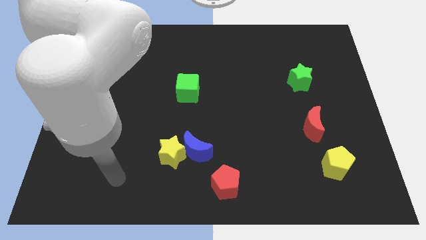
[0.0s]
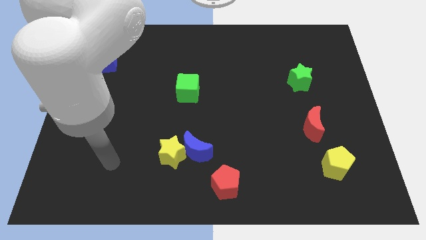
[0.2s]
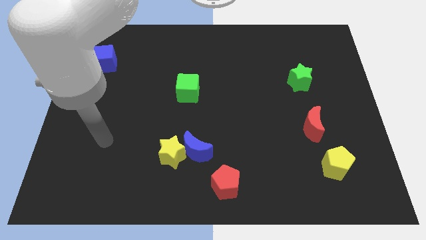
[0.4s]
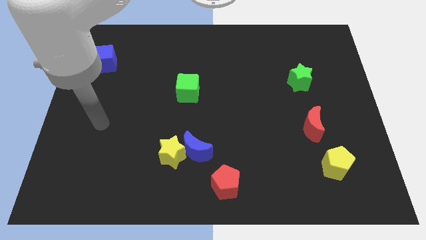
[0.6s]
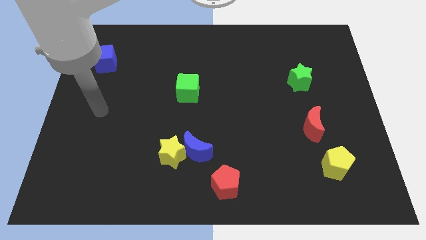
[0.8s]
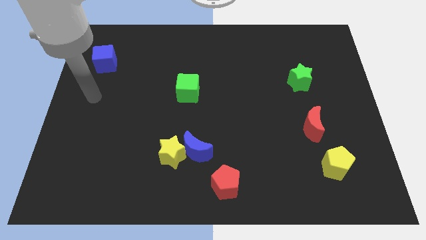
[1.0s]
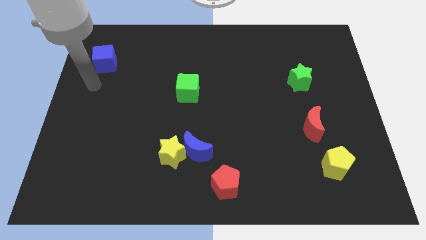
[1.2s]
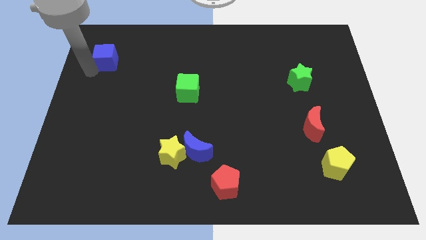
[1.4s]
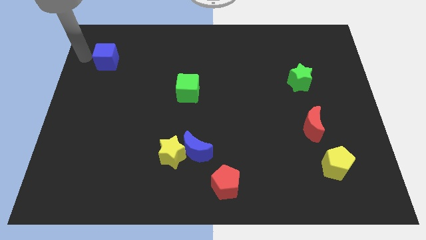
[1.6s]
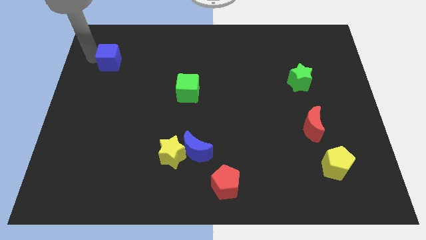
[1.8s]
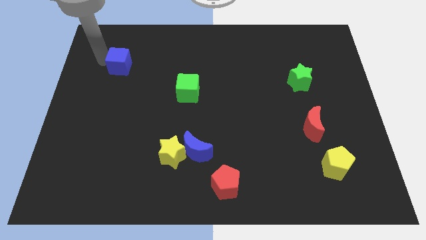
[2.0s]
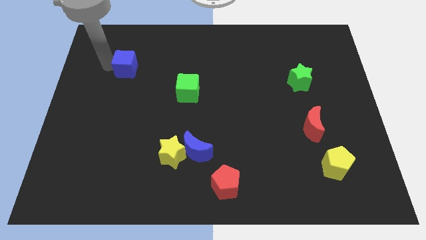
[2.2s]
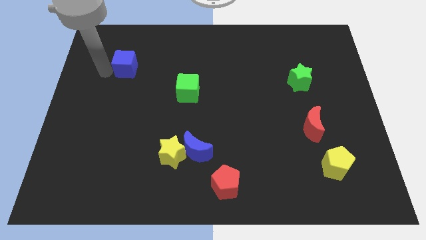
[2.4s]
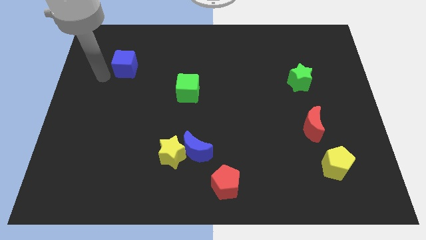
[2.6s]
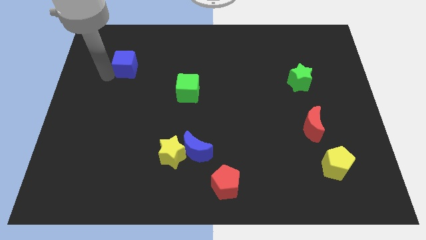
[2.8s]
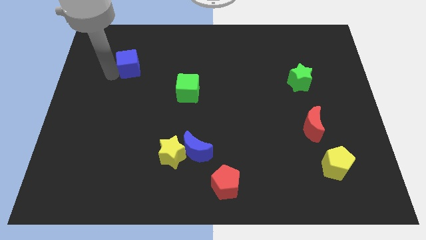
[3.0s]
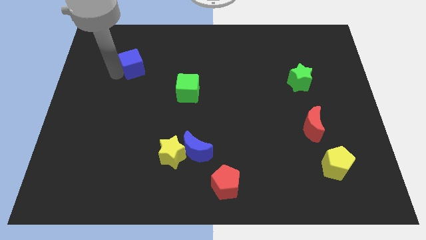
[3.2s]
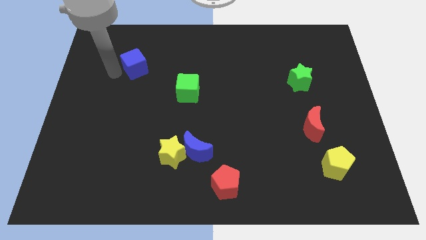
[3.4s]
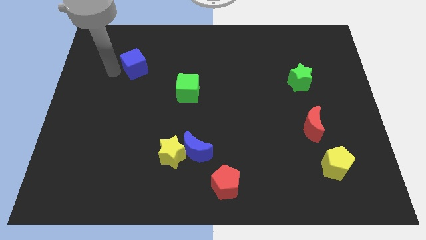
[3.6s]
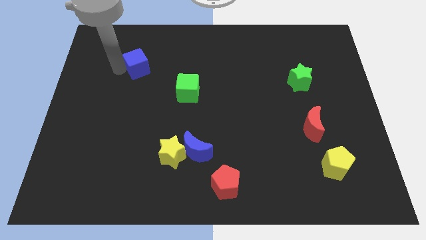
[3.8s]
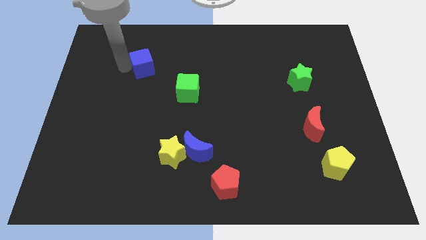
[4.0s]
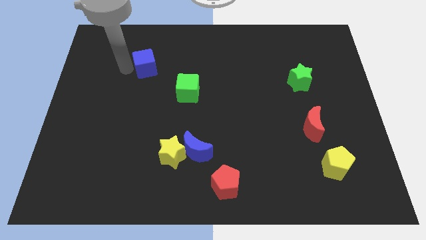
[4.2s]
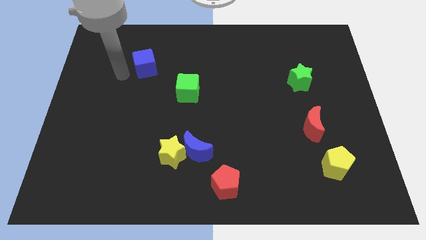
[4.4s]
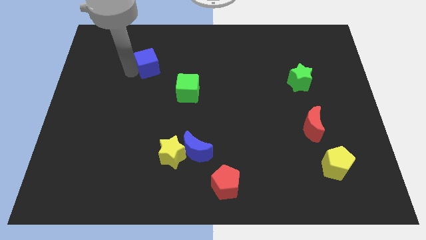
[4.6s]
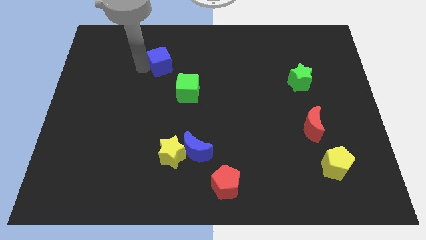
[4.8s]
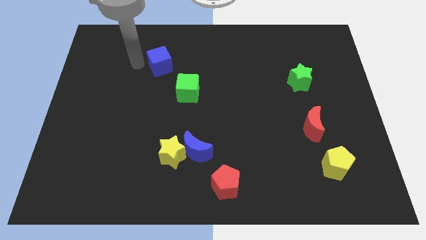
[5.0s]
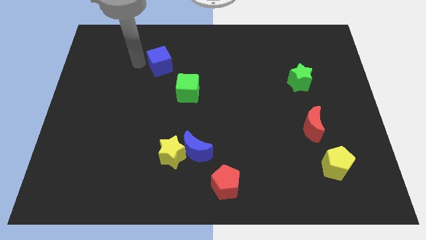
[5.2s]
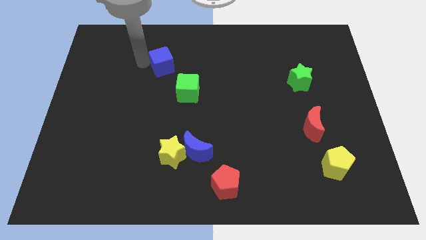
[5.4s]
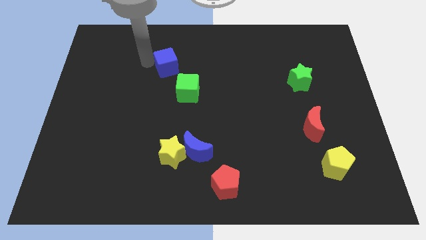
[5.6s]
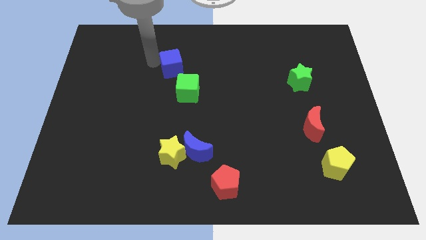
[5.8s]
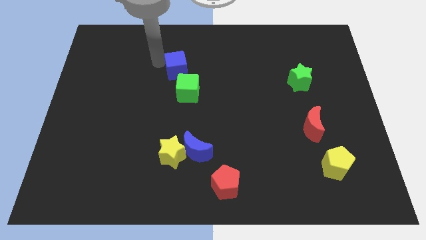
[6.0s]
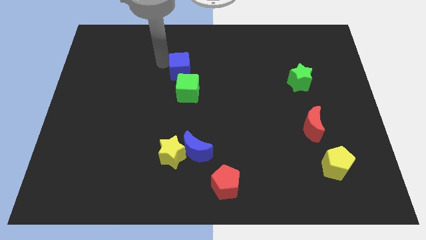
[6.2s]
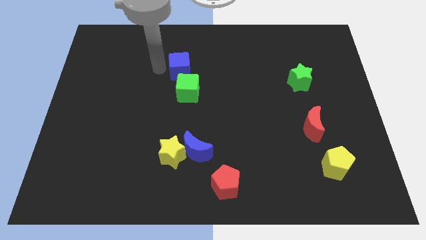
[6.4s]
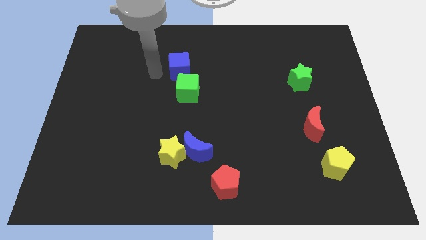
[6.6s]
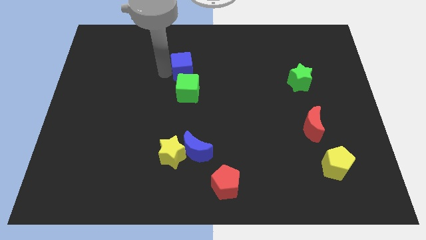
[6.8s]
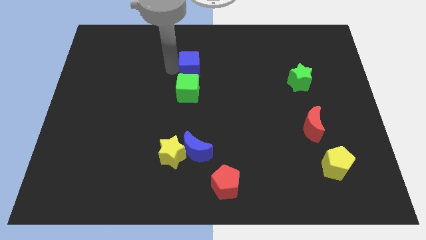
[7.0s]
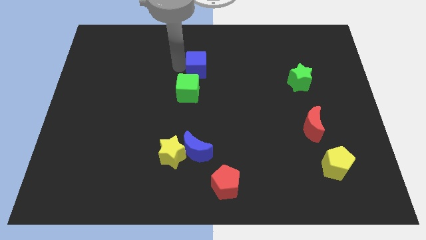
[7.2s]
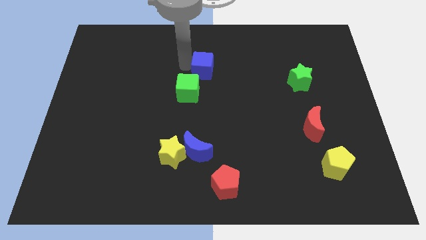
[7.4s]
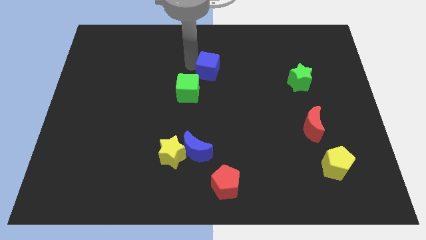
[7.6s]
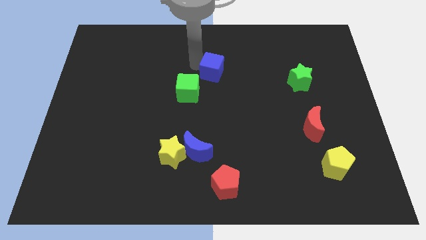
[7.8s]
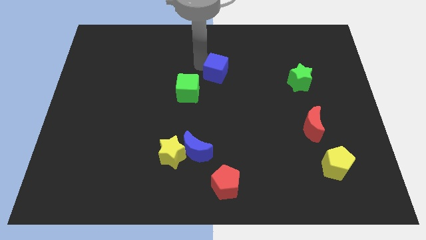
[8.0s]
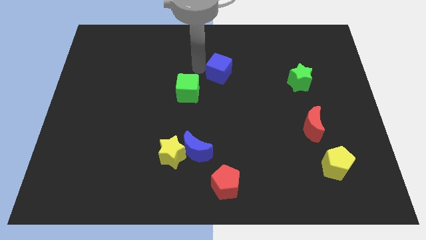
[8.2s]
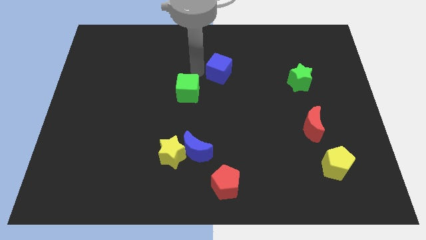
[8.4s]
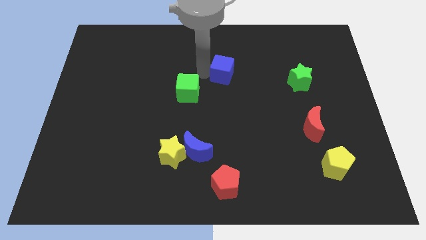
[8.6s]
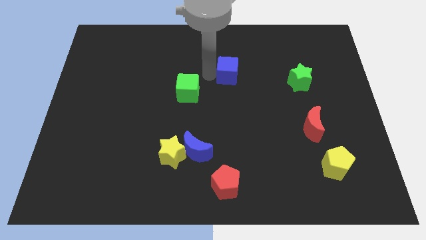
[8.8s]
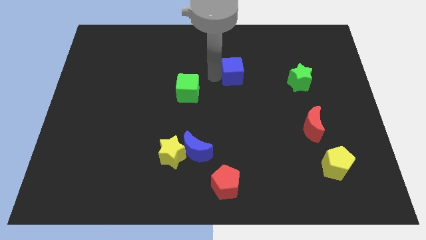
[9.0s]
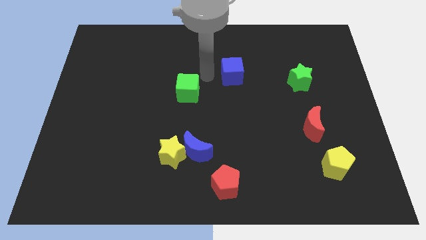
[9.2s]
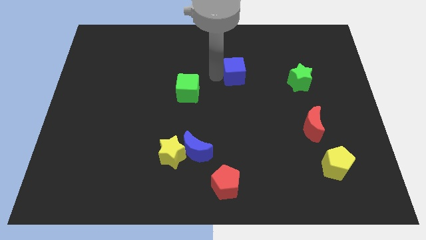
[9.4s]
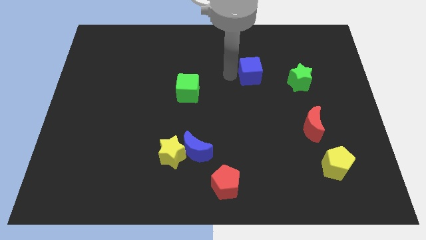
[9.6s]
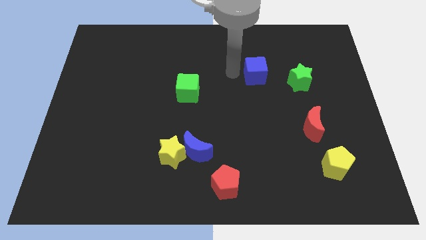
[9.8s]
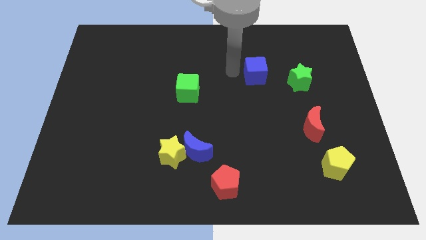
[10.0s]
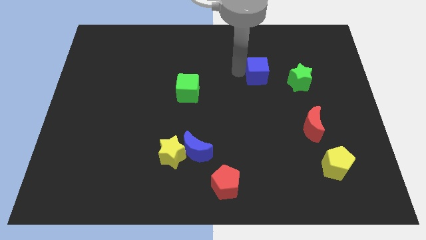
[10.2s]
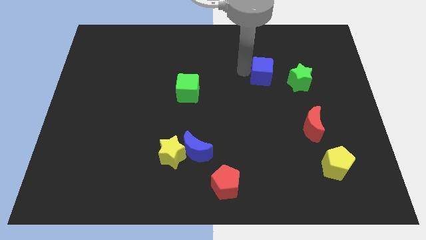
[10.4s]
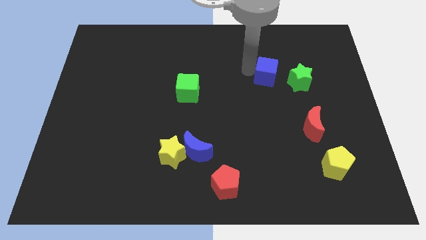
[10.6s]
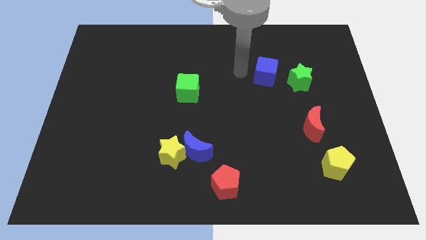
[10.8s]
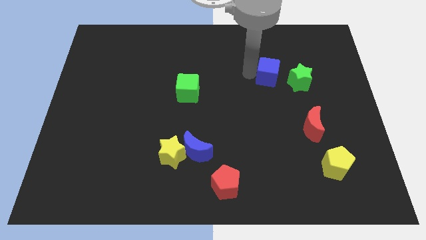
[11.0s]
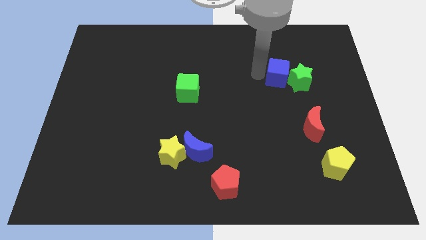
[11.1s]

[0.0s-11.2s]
put the blue cube towards the green star

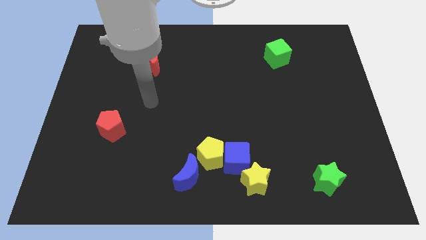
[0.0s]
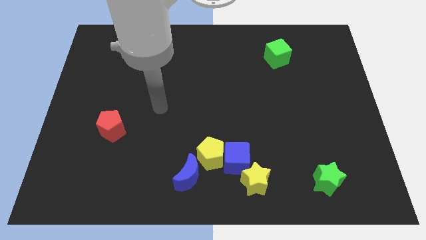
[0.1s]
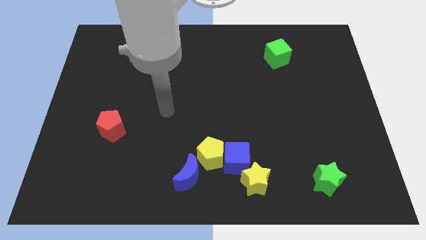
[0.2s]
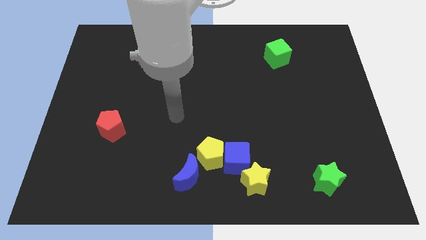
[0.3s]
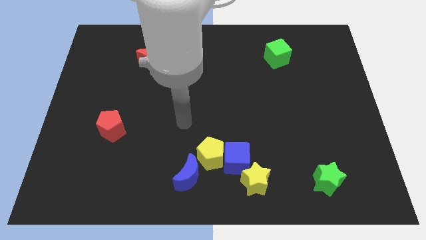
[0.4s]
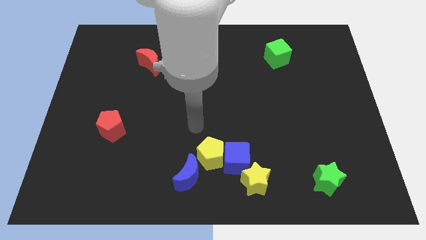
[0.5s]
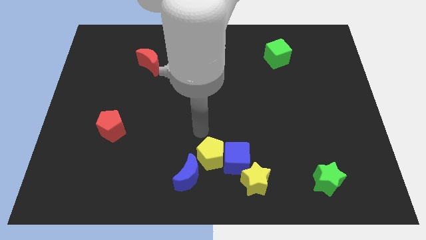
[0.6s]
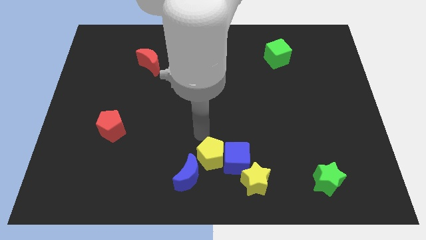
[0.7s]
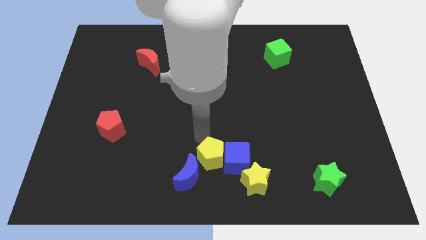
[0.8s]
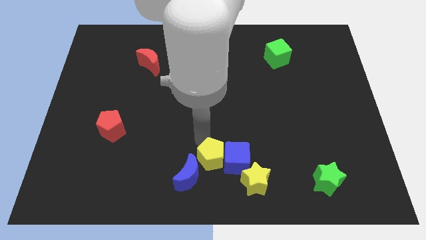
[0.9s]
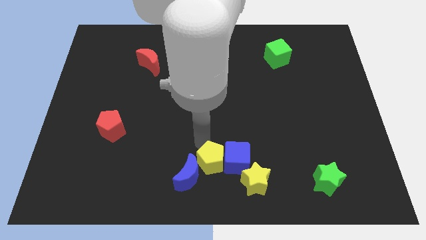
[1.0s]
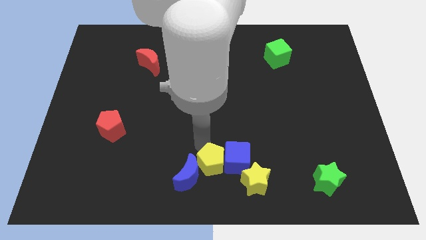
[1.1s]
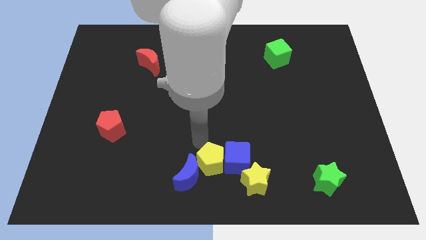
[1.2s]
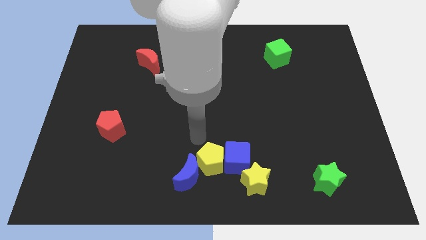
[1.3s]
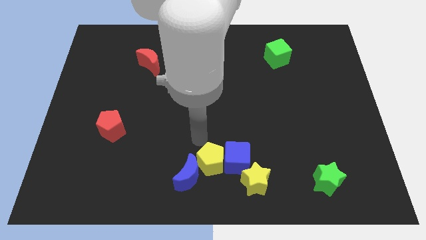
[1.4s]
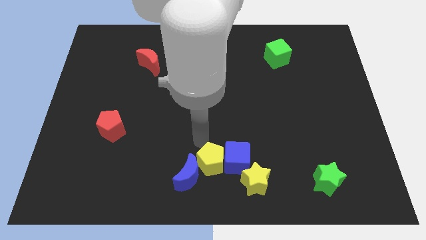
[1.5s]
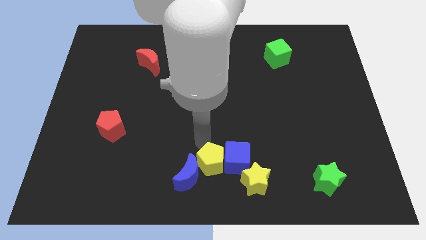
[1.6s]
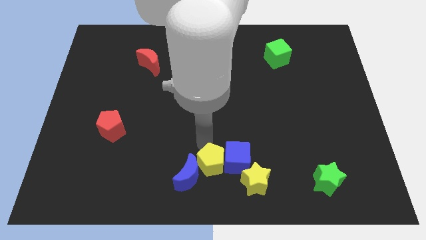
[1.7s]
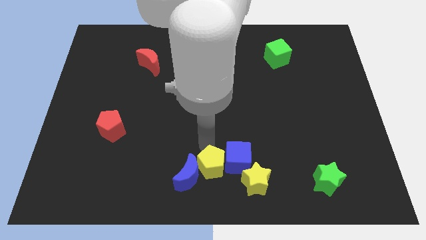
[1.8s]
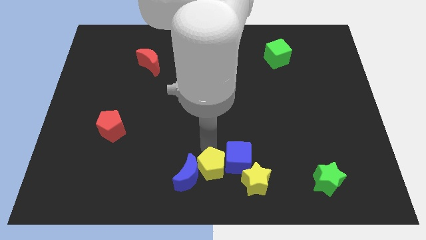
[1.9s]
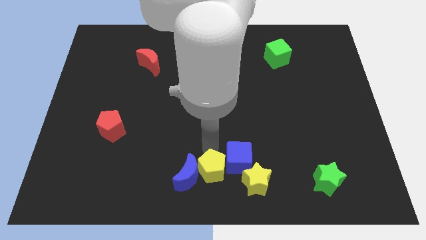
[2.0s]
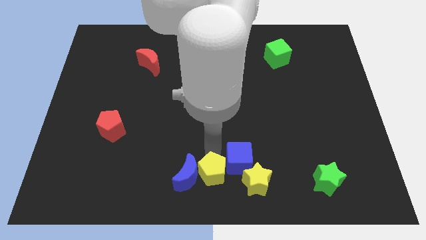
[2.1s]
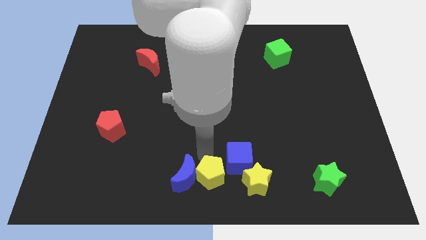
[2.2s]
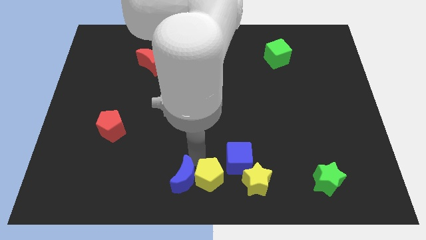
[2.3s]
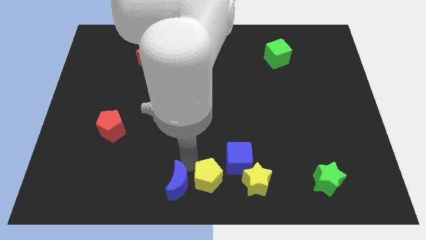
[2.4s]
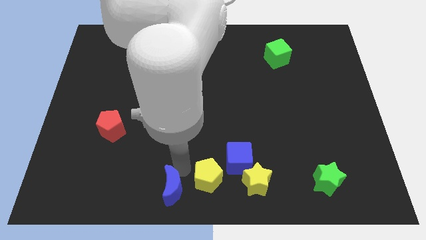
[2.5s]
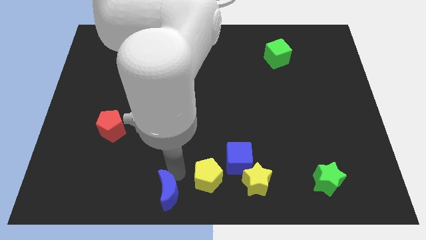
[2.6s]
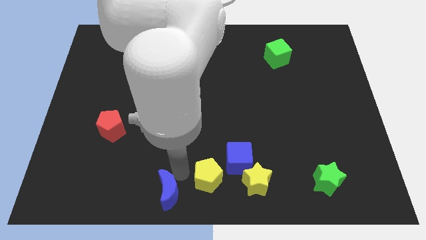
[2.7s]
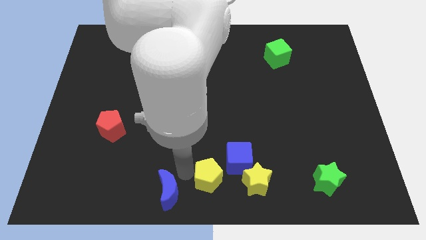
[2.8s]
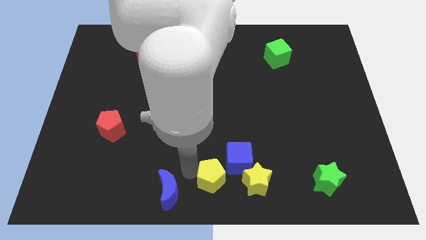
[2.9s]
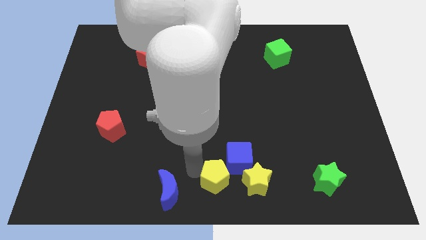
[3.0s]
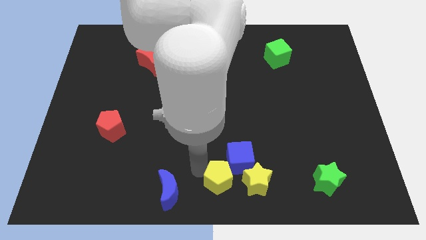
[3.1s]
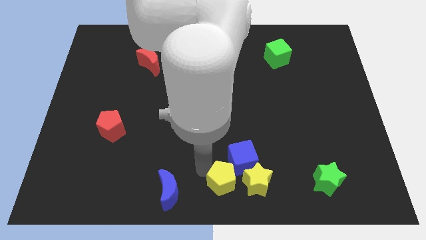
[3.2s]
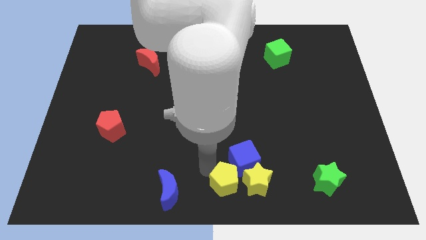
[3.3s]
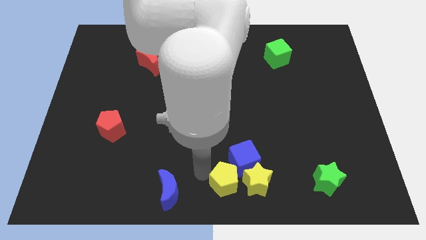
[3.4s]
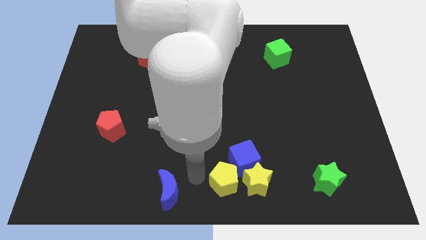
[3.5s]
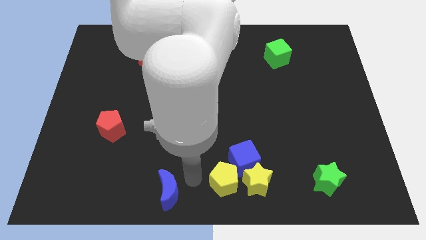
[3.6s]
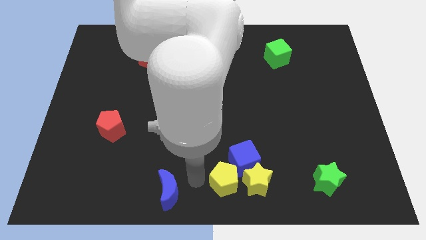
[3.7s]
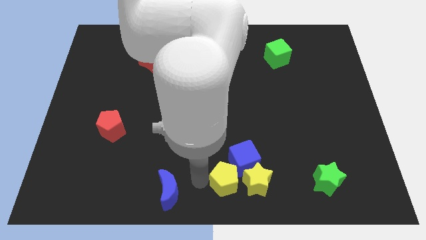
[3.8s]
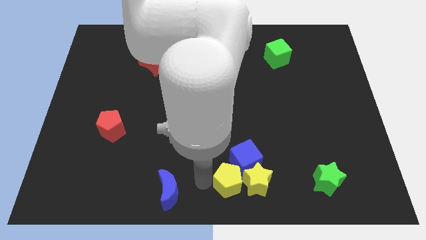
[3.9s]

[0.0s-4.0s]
push the yellow pentagon to the yellow star
